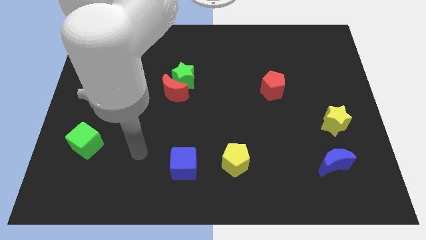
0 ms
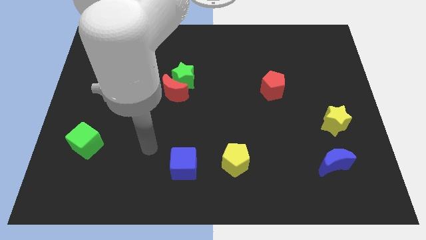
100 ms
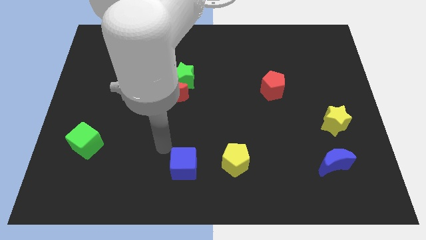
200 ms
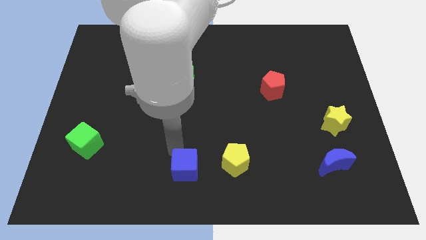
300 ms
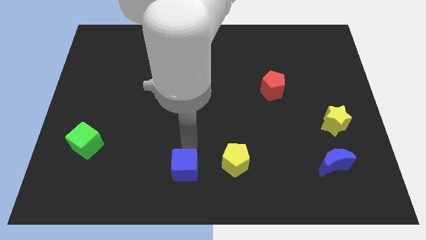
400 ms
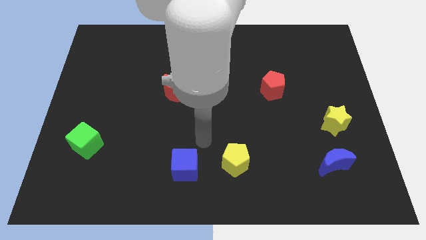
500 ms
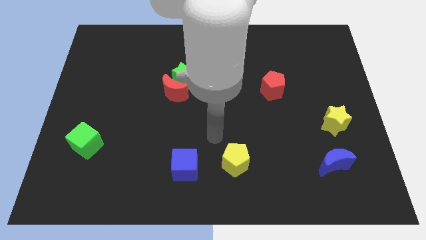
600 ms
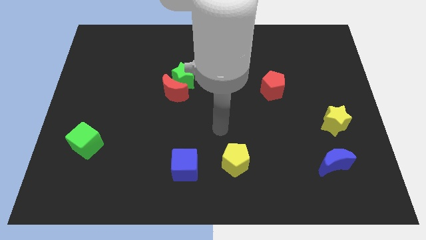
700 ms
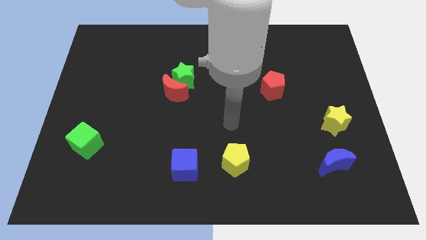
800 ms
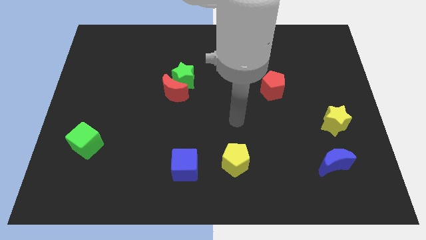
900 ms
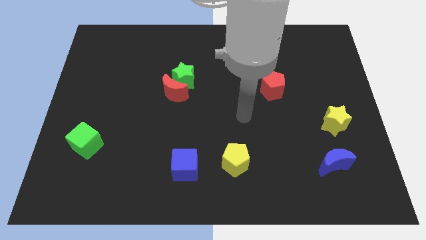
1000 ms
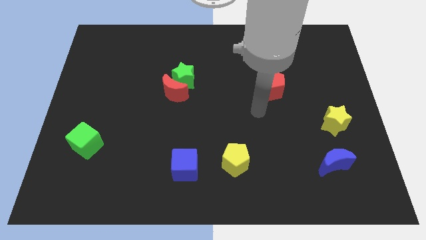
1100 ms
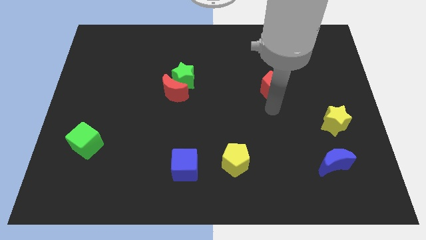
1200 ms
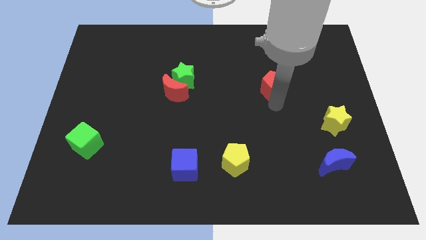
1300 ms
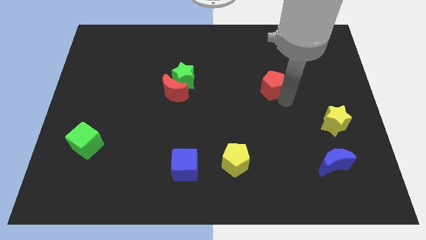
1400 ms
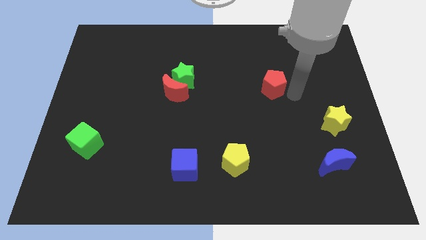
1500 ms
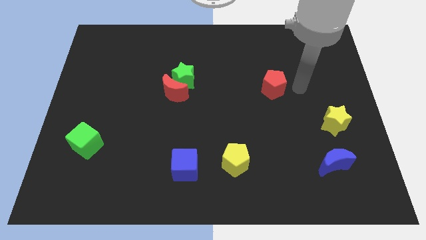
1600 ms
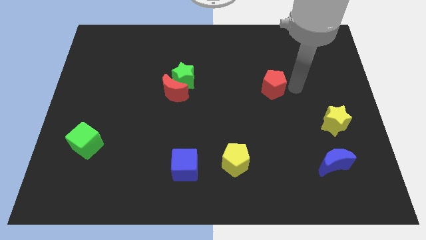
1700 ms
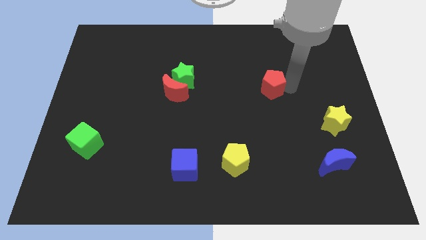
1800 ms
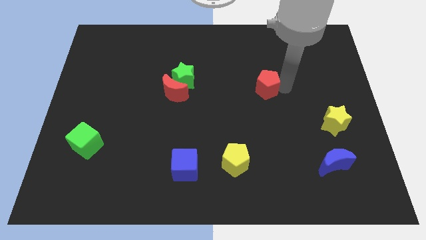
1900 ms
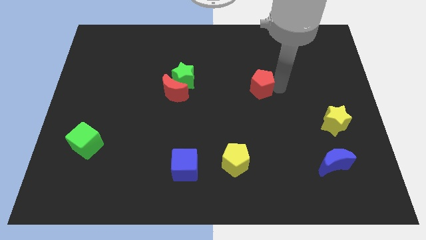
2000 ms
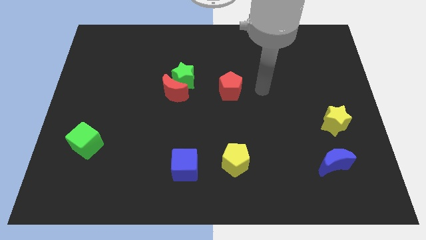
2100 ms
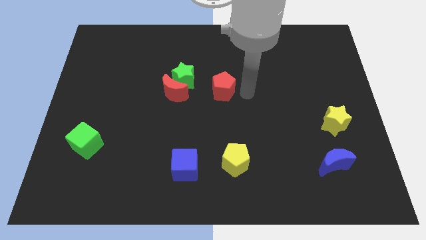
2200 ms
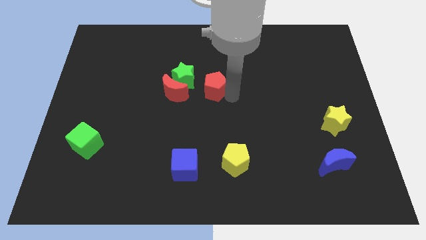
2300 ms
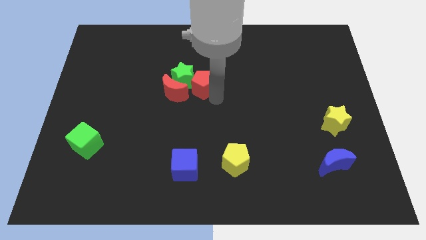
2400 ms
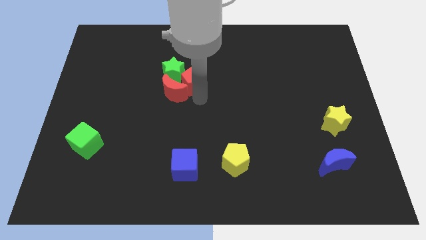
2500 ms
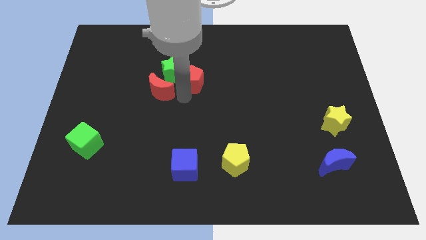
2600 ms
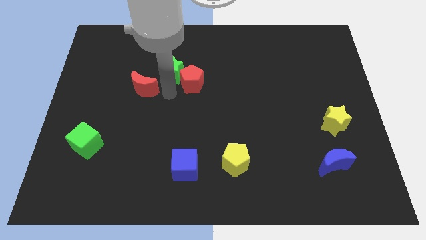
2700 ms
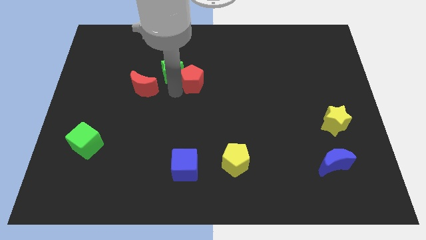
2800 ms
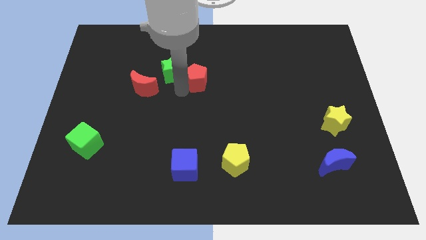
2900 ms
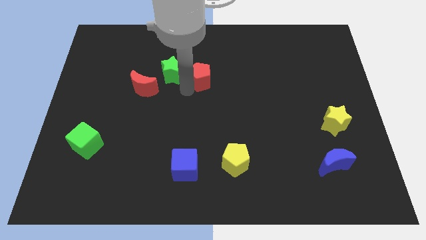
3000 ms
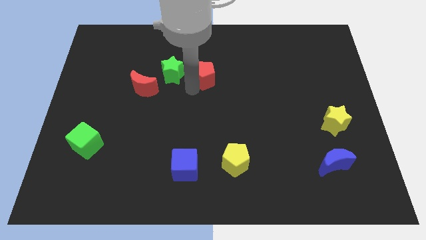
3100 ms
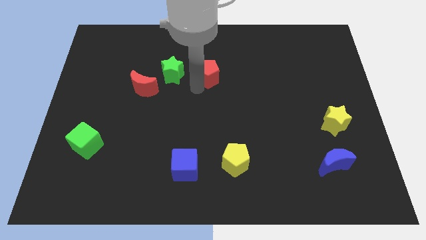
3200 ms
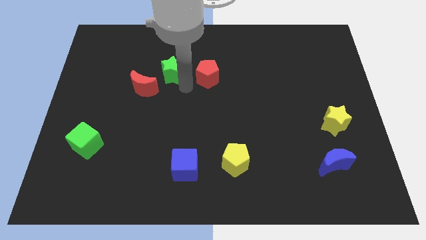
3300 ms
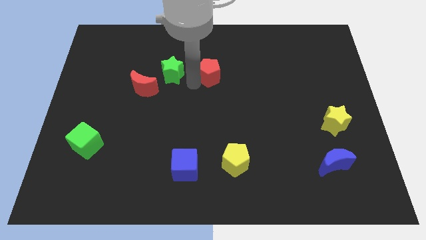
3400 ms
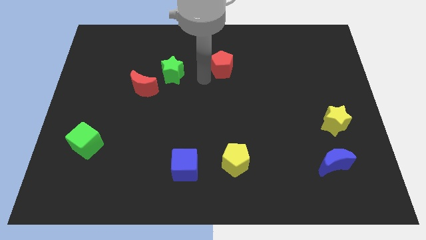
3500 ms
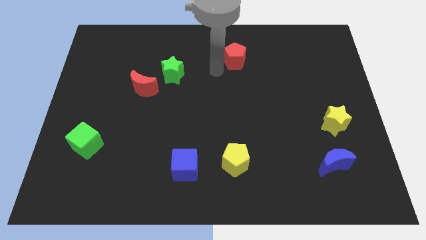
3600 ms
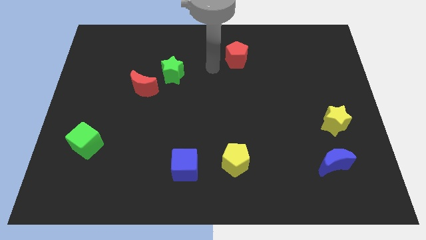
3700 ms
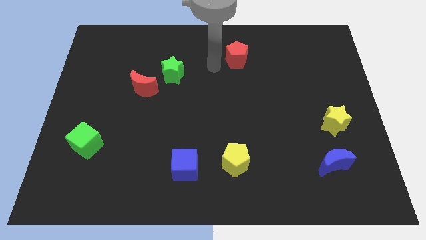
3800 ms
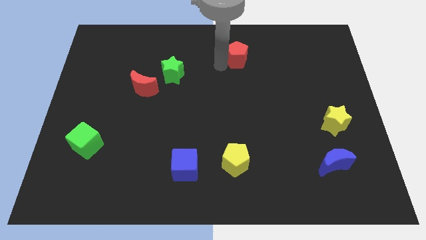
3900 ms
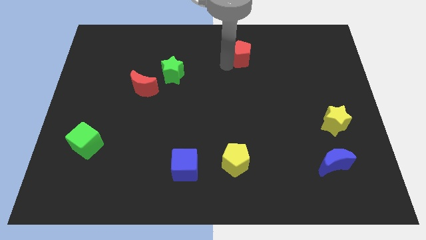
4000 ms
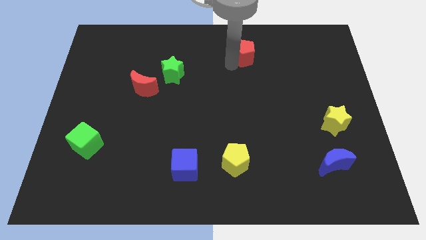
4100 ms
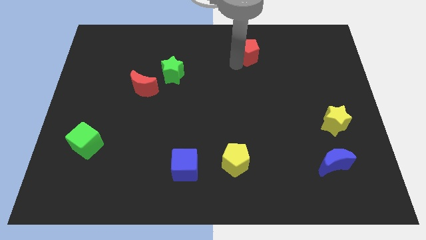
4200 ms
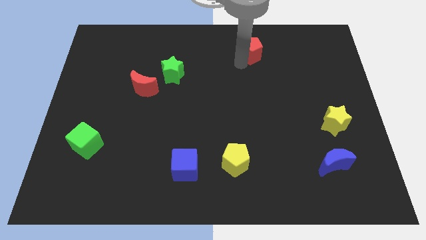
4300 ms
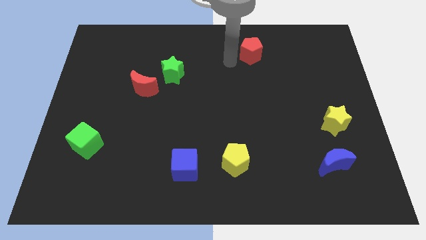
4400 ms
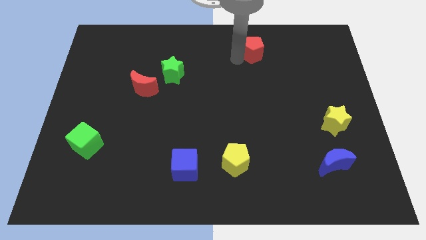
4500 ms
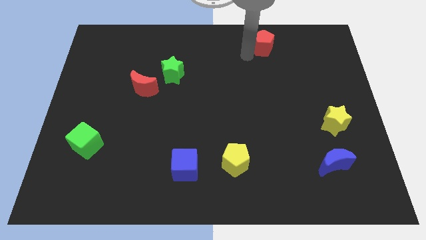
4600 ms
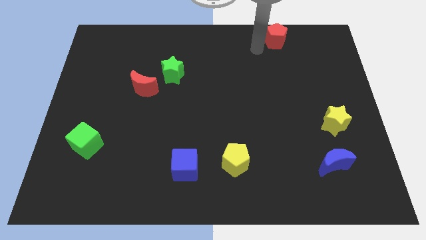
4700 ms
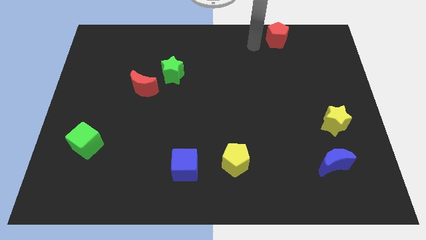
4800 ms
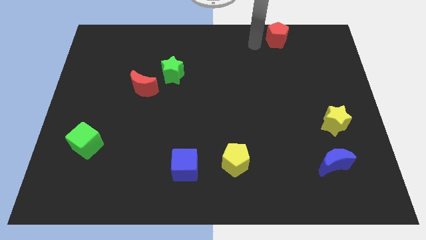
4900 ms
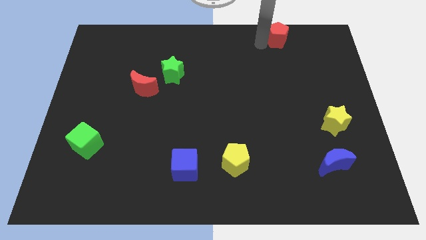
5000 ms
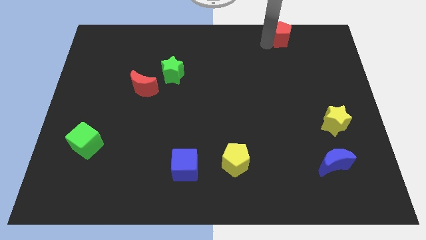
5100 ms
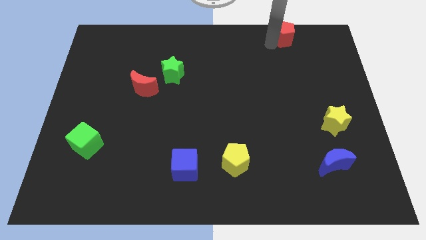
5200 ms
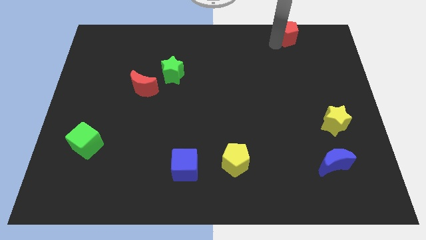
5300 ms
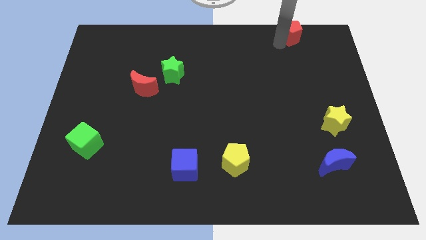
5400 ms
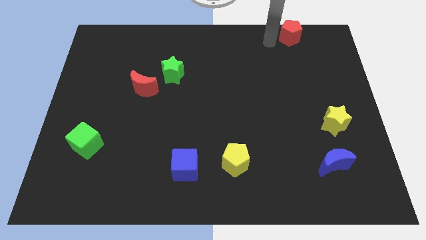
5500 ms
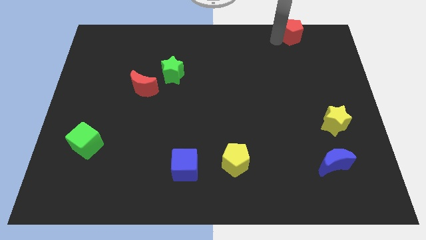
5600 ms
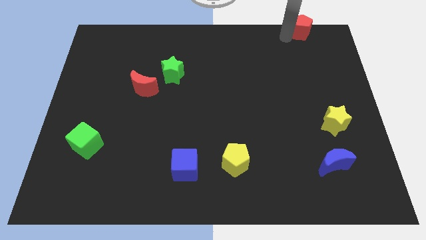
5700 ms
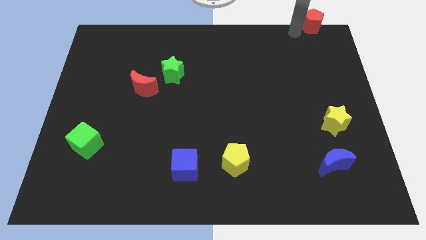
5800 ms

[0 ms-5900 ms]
slide the red pentagon to the upper right corner

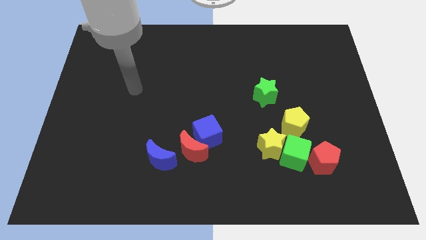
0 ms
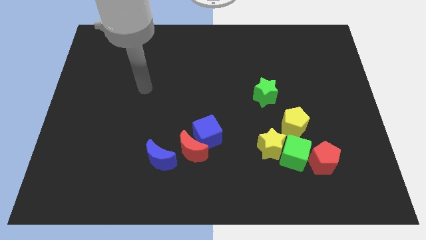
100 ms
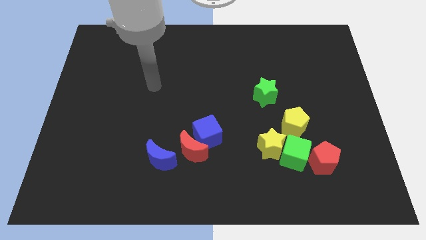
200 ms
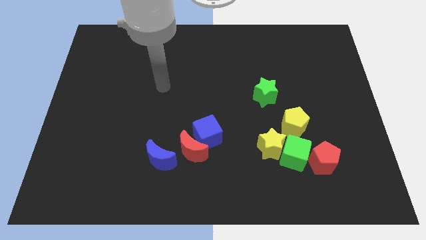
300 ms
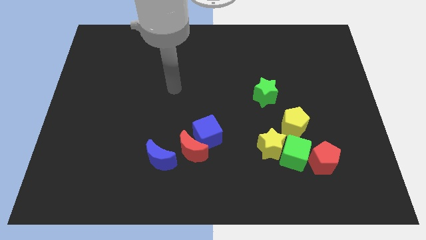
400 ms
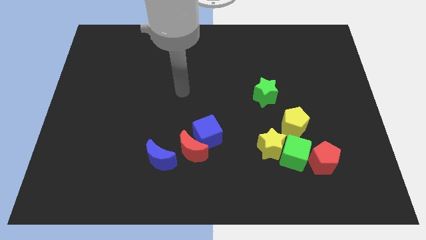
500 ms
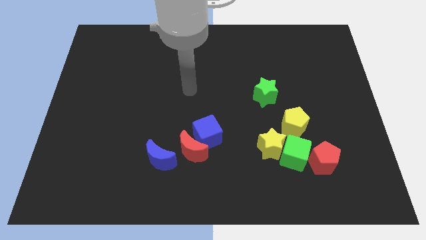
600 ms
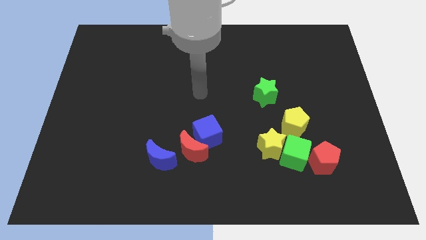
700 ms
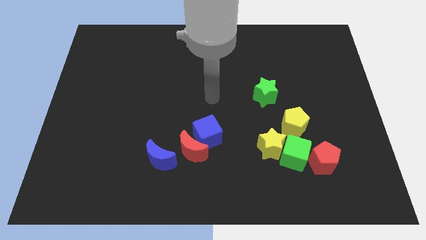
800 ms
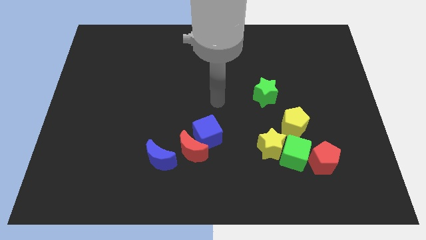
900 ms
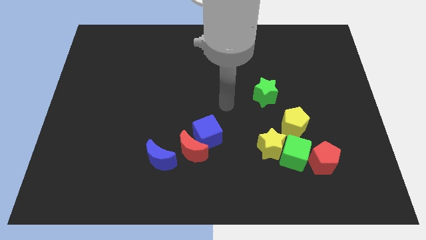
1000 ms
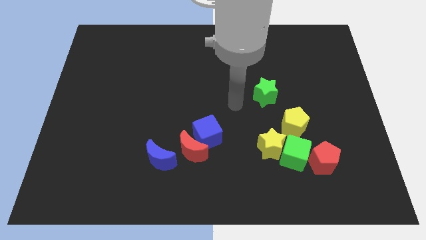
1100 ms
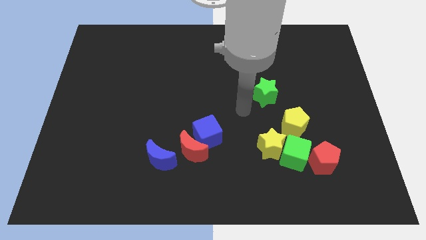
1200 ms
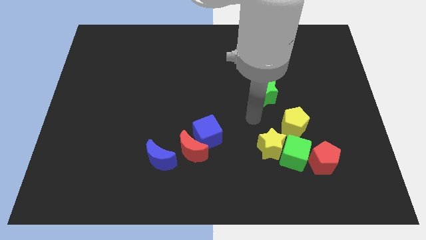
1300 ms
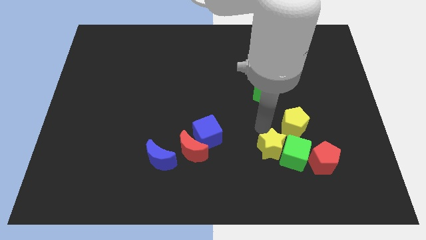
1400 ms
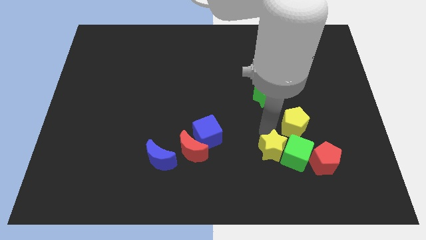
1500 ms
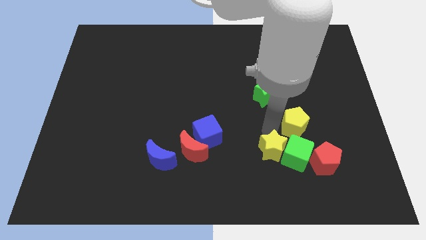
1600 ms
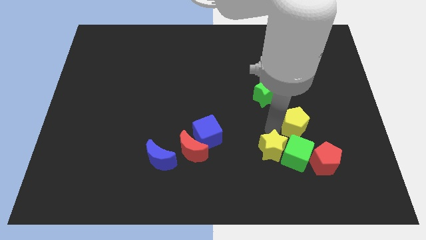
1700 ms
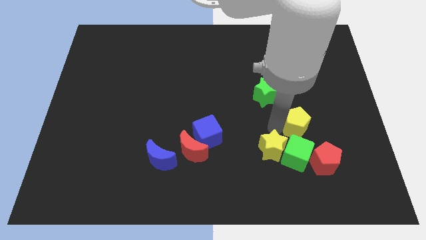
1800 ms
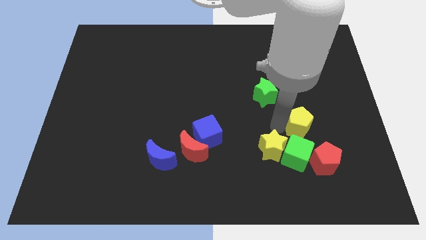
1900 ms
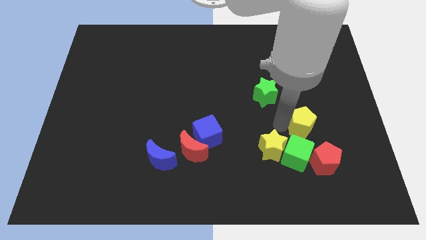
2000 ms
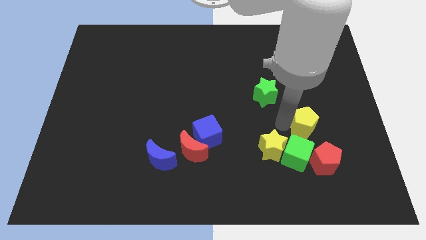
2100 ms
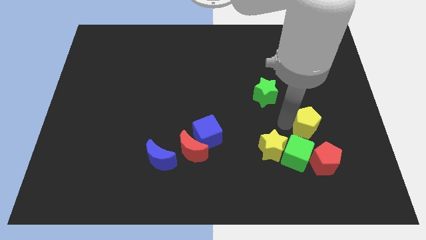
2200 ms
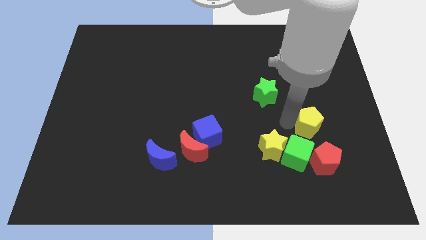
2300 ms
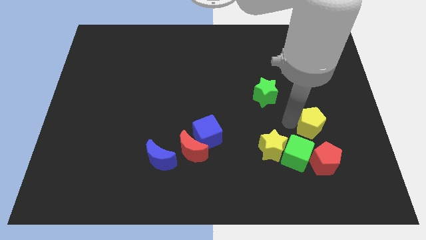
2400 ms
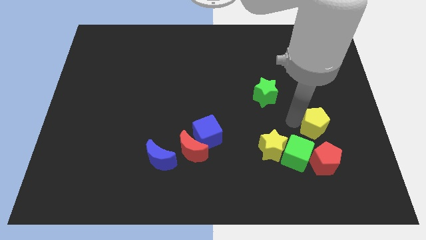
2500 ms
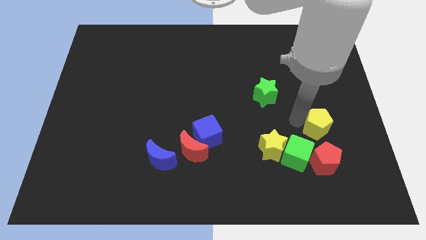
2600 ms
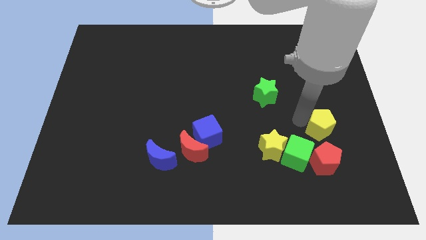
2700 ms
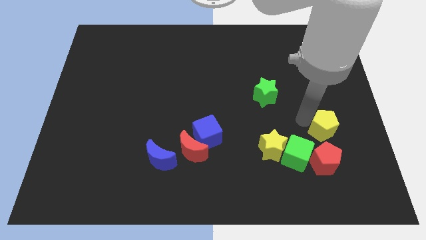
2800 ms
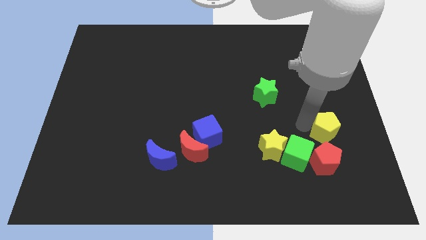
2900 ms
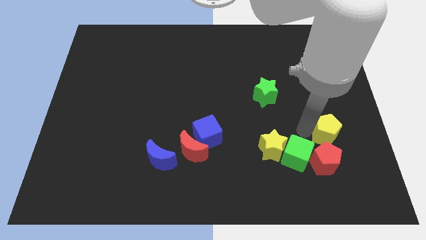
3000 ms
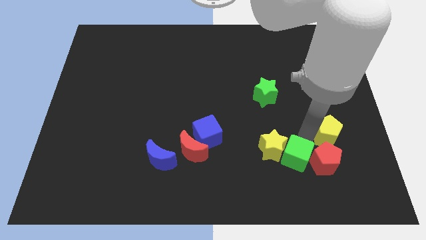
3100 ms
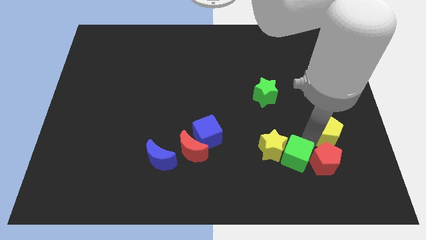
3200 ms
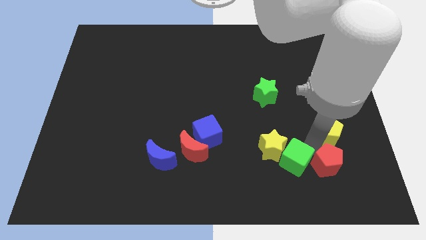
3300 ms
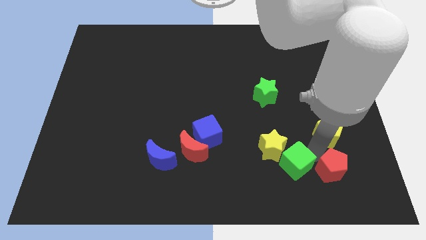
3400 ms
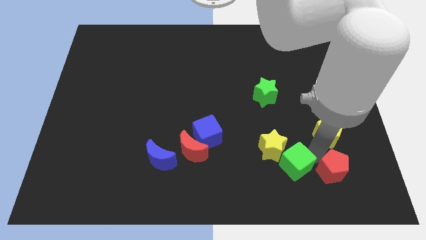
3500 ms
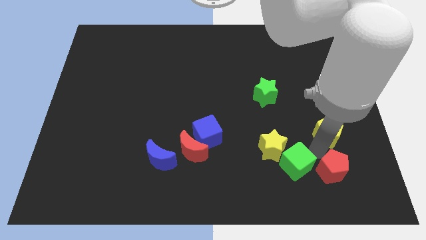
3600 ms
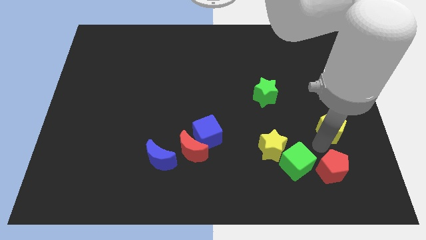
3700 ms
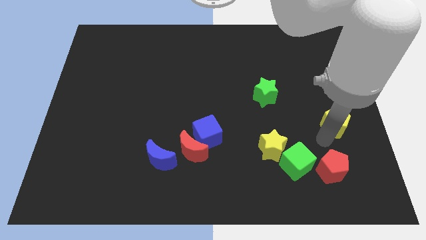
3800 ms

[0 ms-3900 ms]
put the yellow pentagon to the right side
